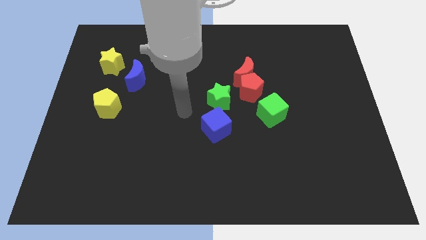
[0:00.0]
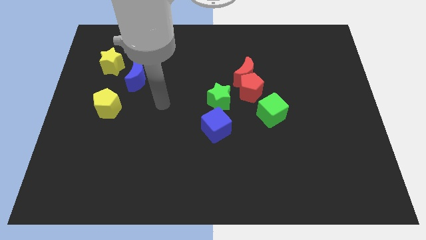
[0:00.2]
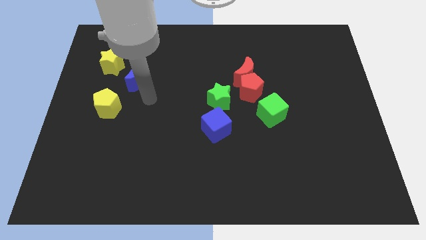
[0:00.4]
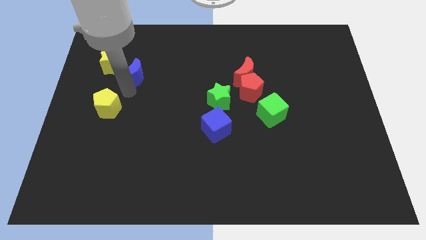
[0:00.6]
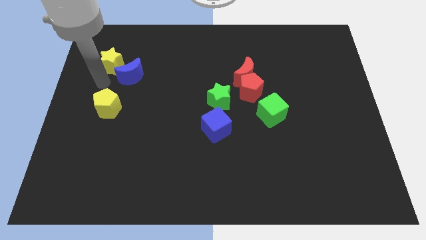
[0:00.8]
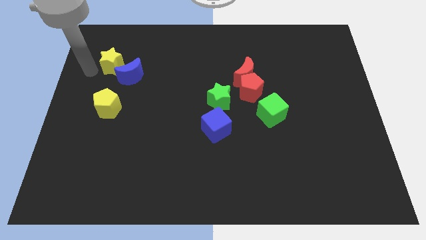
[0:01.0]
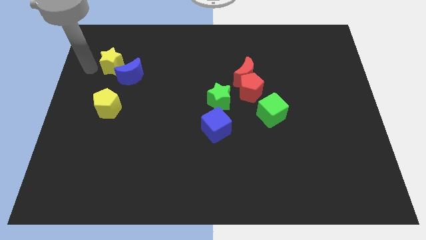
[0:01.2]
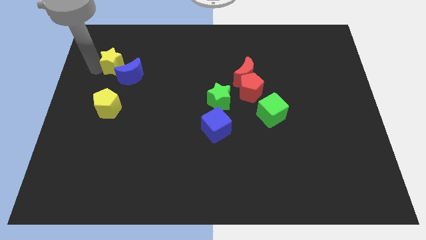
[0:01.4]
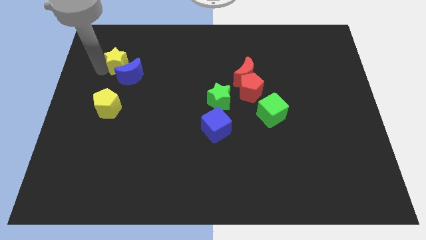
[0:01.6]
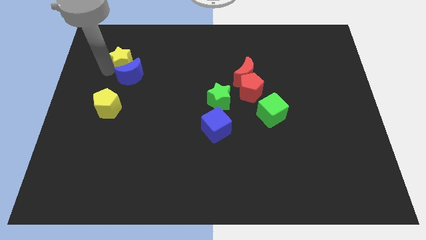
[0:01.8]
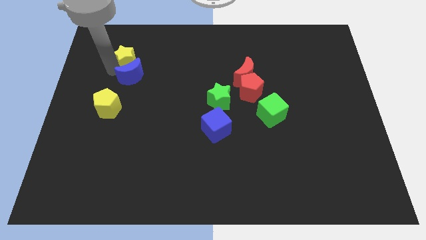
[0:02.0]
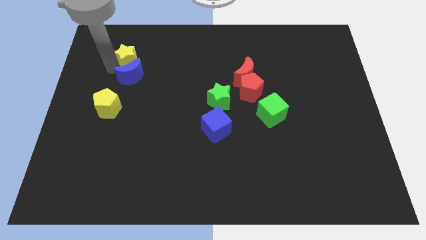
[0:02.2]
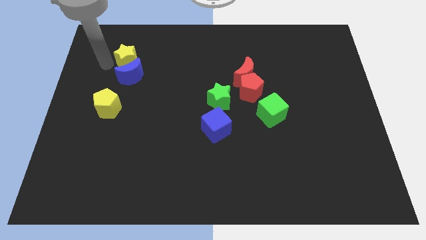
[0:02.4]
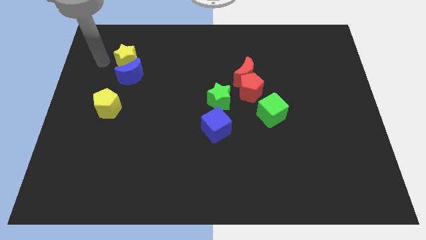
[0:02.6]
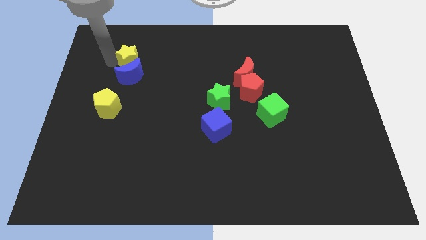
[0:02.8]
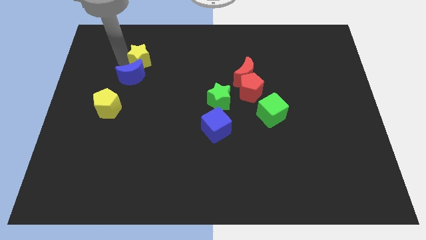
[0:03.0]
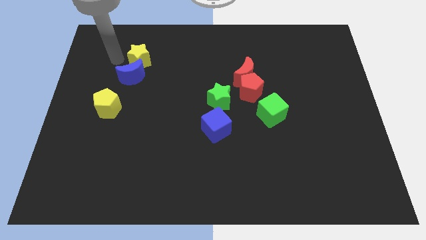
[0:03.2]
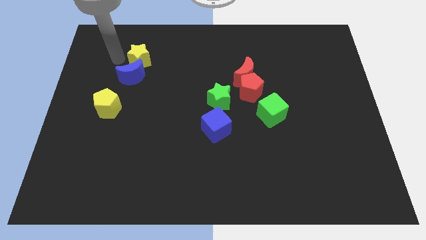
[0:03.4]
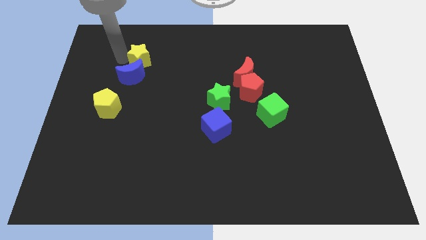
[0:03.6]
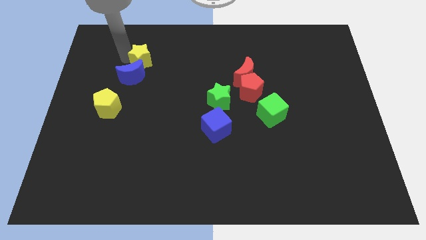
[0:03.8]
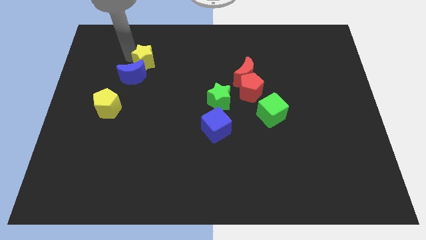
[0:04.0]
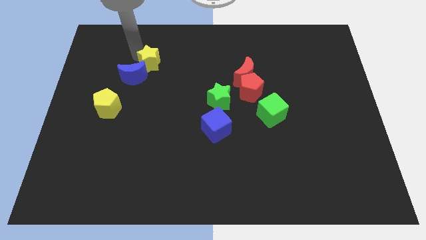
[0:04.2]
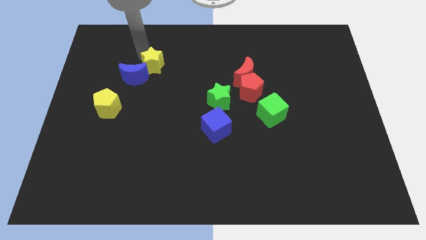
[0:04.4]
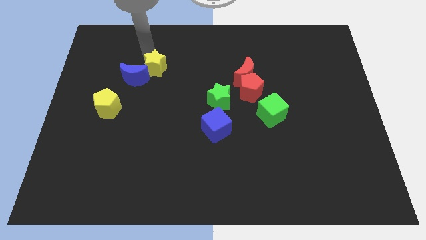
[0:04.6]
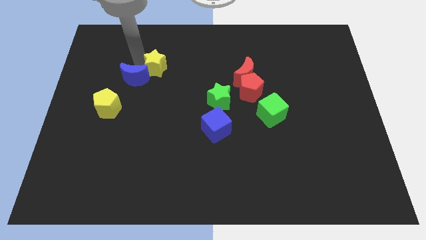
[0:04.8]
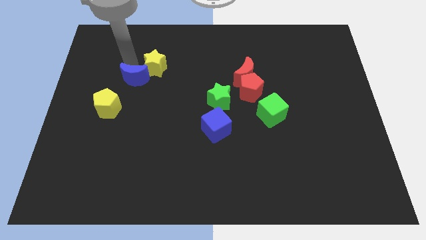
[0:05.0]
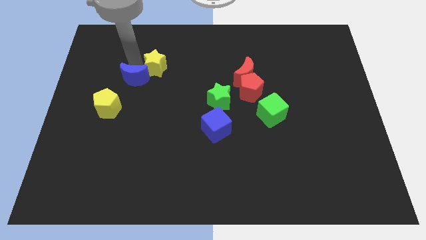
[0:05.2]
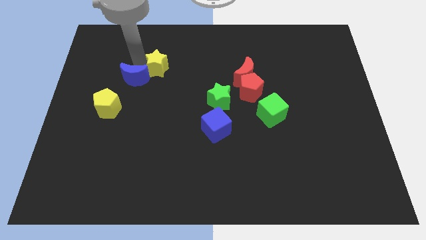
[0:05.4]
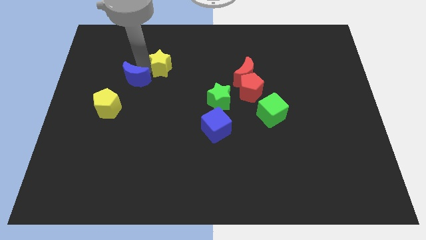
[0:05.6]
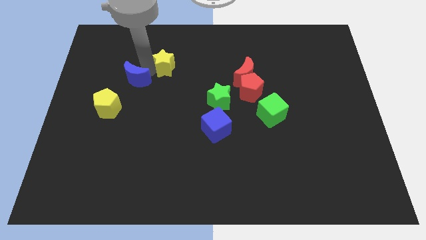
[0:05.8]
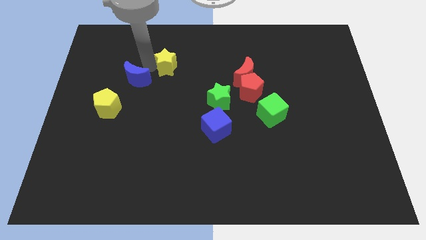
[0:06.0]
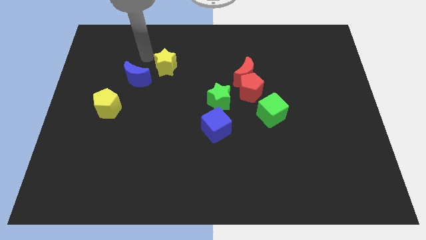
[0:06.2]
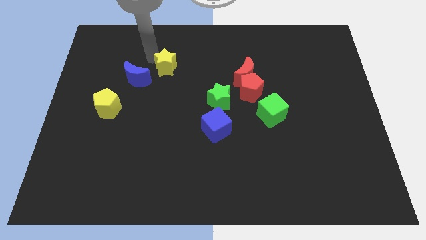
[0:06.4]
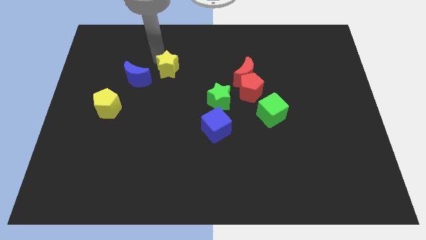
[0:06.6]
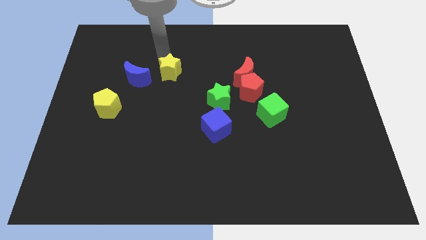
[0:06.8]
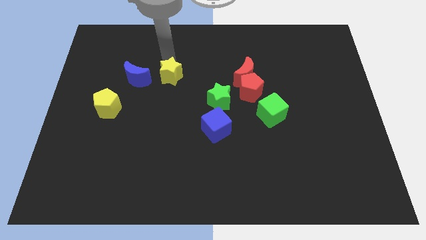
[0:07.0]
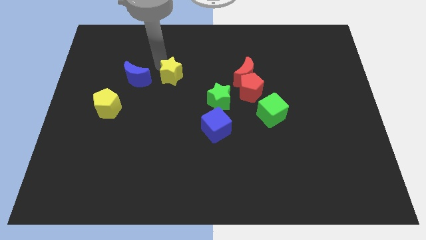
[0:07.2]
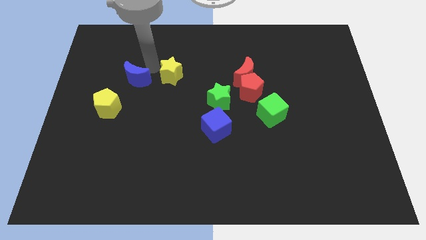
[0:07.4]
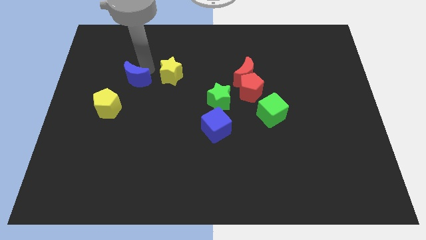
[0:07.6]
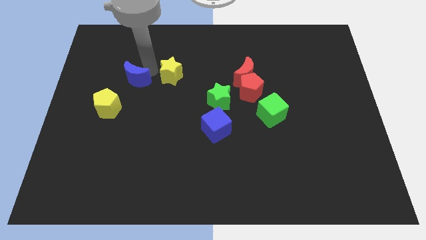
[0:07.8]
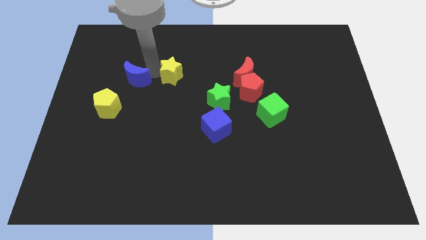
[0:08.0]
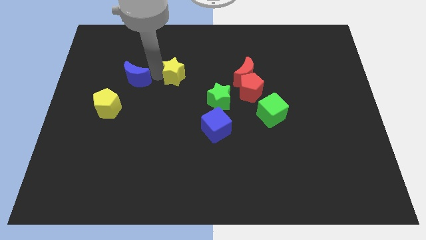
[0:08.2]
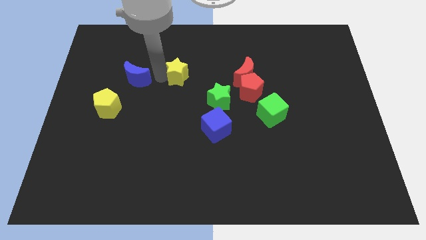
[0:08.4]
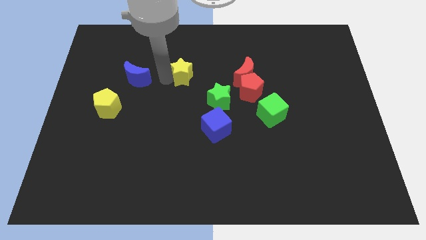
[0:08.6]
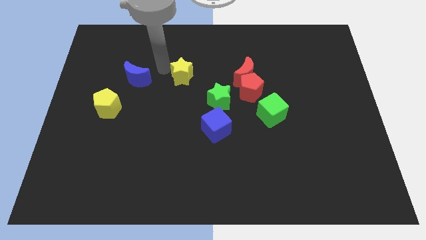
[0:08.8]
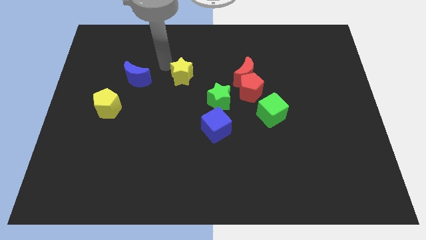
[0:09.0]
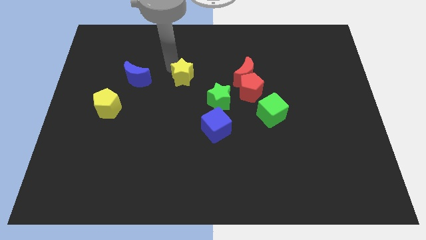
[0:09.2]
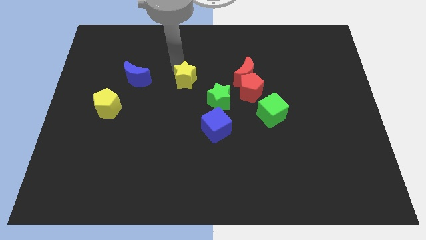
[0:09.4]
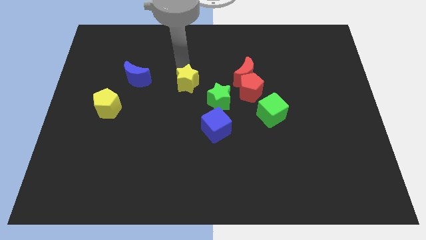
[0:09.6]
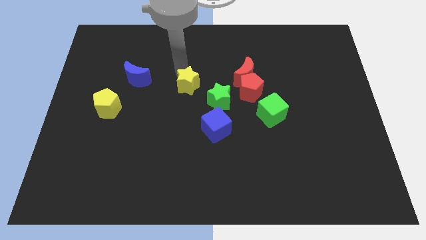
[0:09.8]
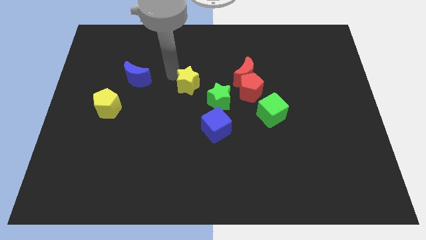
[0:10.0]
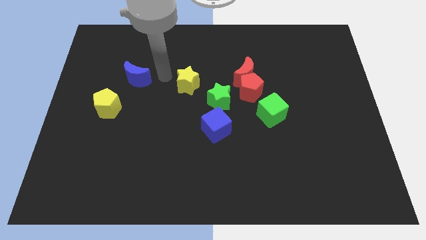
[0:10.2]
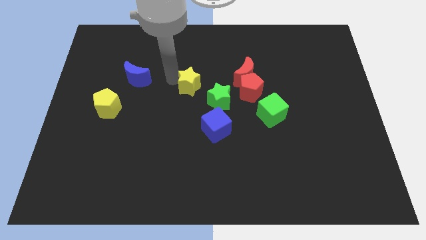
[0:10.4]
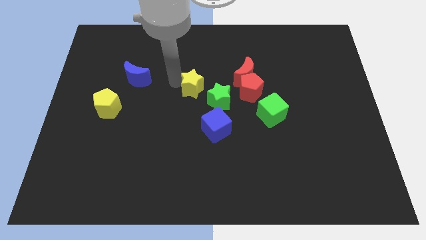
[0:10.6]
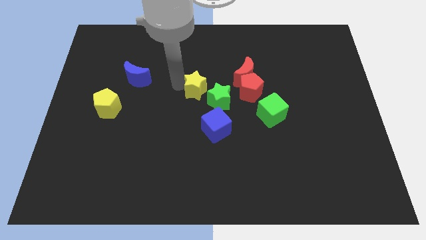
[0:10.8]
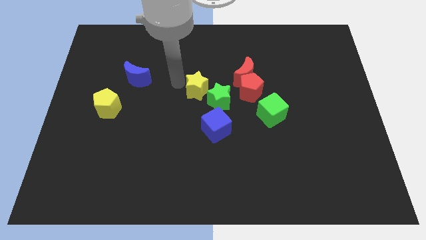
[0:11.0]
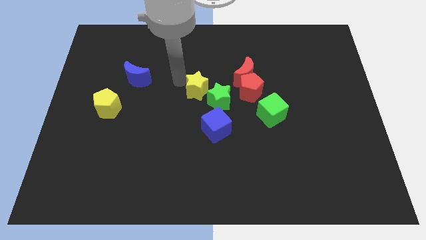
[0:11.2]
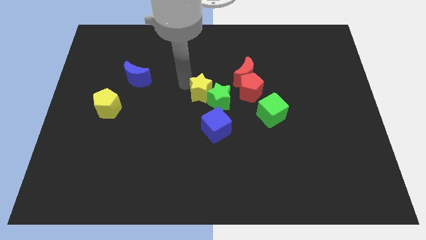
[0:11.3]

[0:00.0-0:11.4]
move the yellow star to the green star

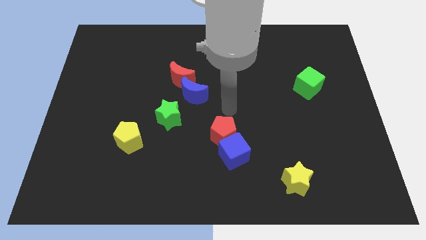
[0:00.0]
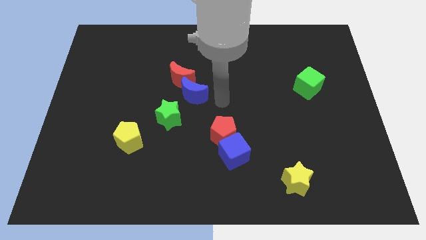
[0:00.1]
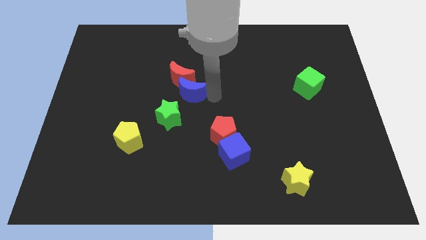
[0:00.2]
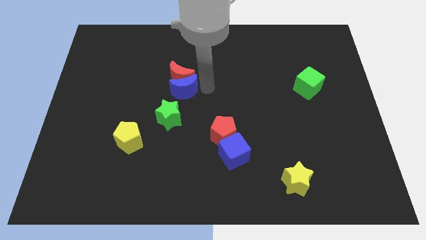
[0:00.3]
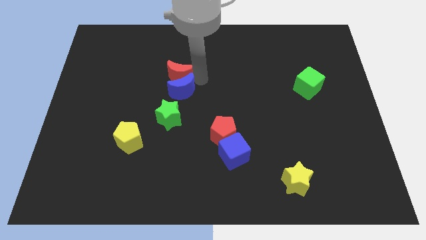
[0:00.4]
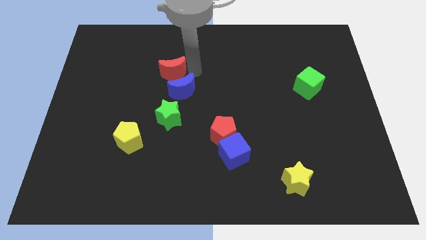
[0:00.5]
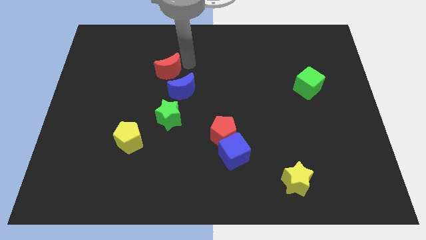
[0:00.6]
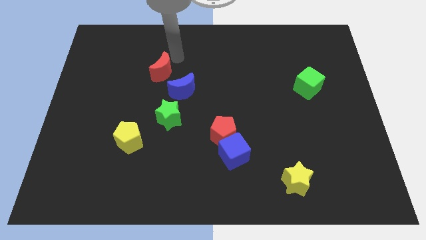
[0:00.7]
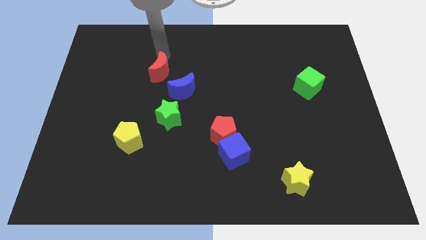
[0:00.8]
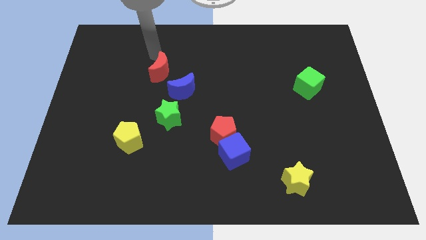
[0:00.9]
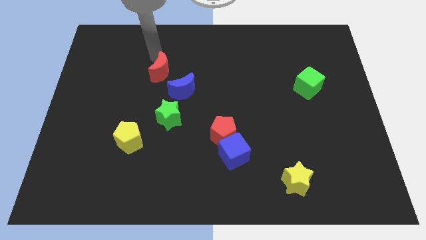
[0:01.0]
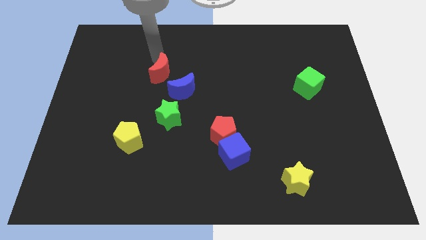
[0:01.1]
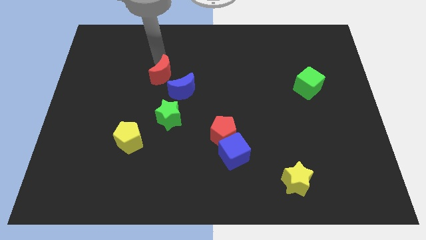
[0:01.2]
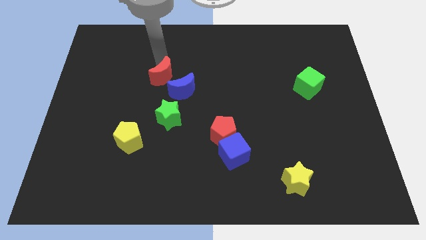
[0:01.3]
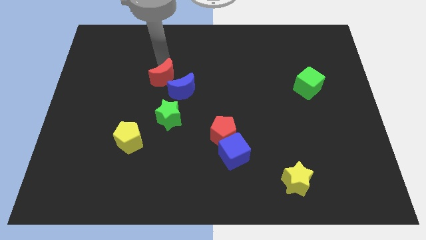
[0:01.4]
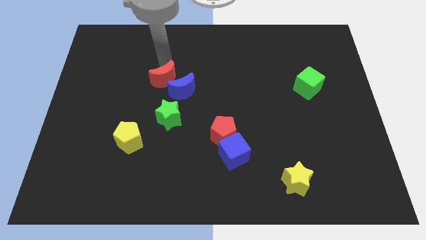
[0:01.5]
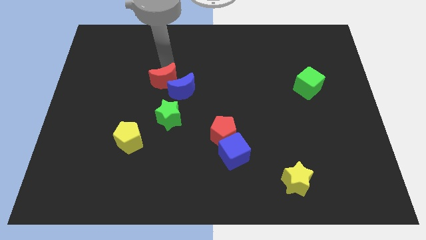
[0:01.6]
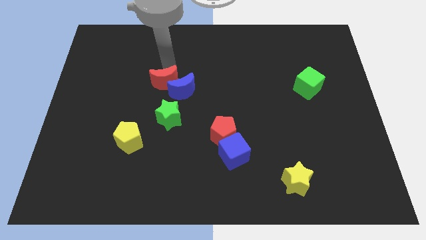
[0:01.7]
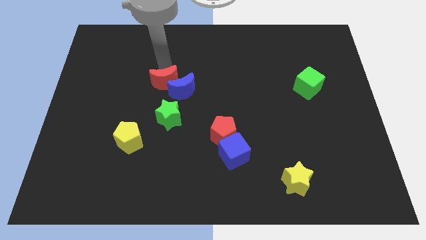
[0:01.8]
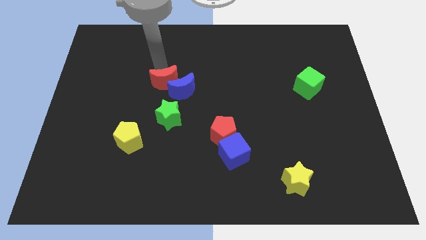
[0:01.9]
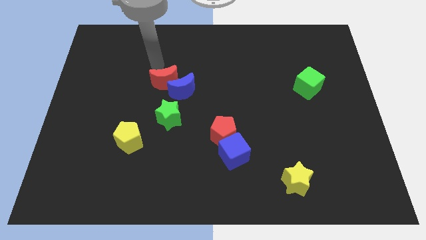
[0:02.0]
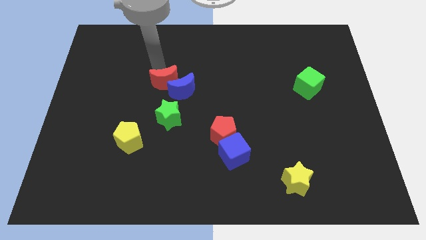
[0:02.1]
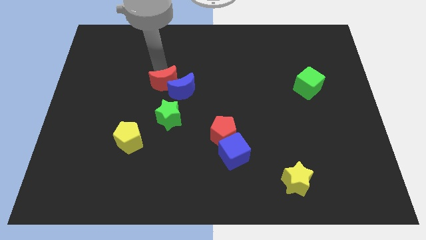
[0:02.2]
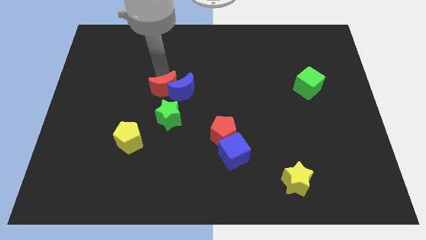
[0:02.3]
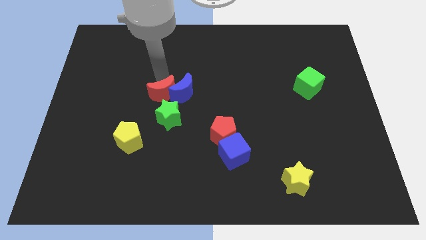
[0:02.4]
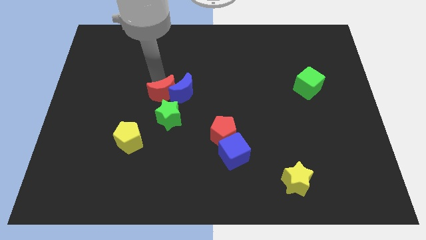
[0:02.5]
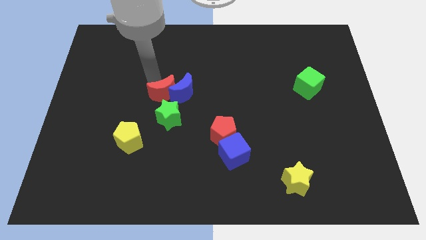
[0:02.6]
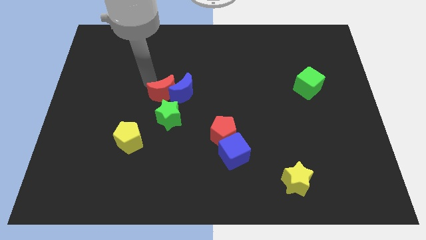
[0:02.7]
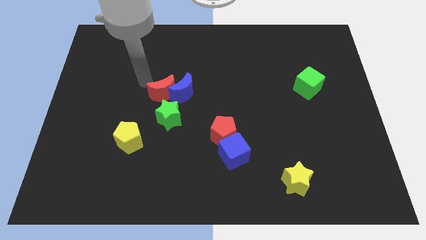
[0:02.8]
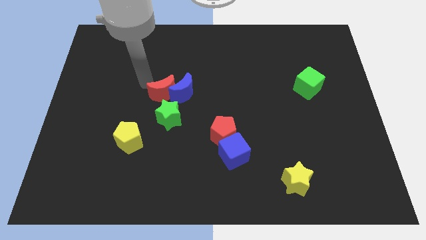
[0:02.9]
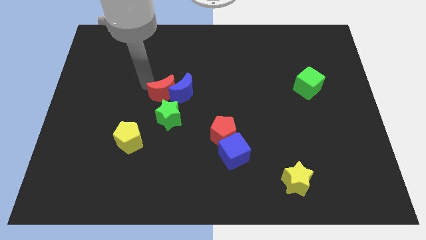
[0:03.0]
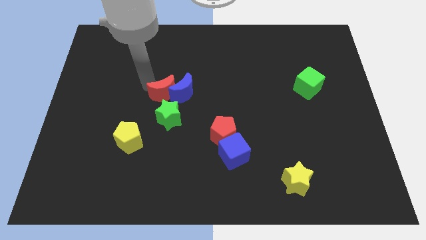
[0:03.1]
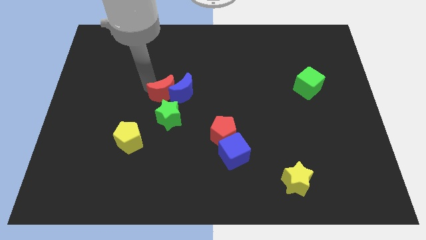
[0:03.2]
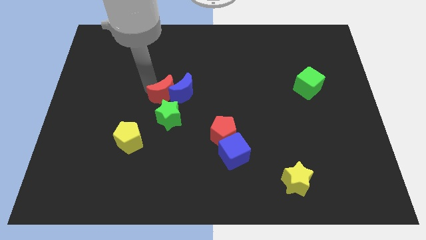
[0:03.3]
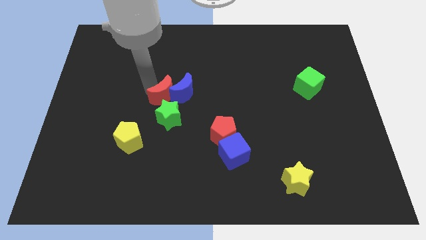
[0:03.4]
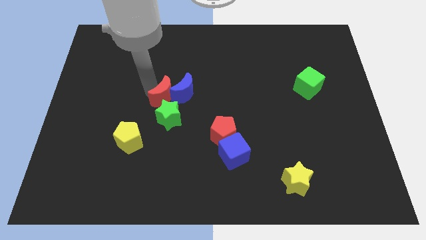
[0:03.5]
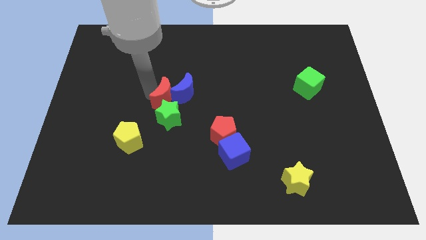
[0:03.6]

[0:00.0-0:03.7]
slide the red moon to the green star
